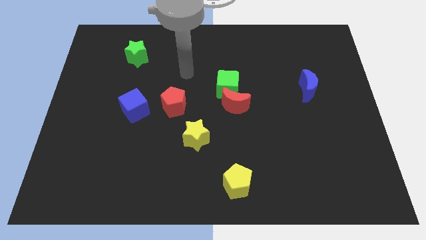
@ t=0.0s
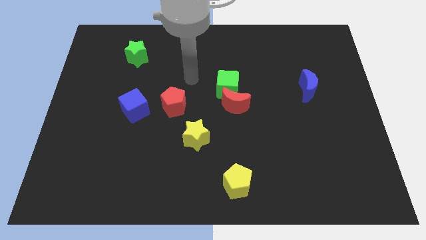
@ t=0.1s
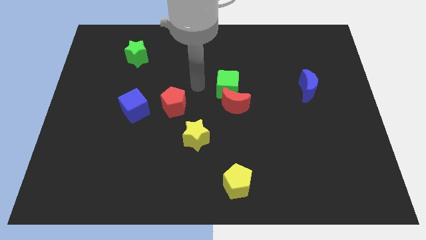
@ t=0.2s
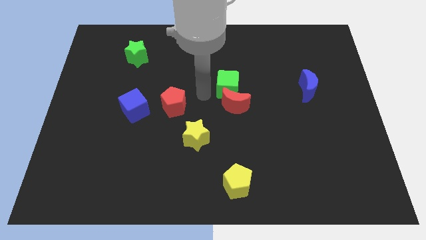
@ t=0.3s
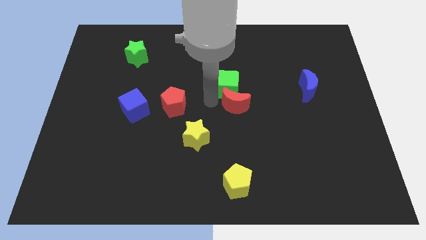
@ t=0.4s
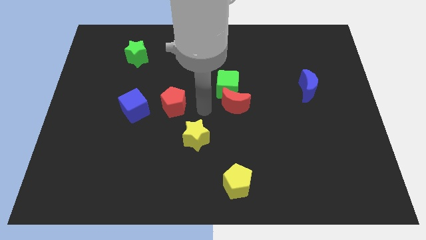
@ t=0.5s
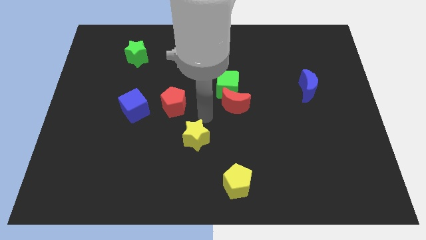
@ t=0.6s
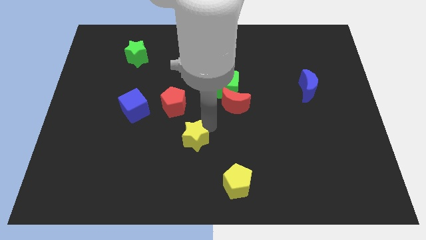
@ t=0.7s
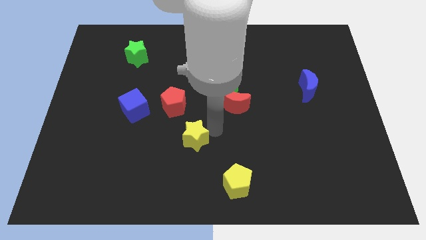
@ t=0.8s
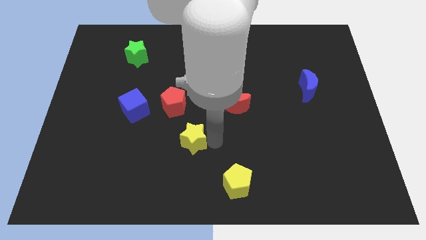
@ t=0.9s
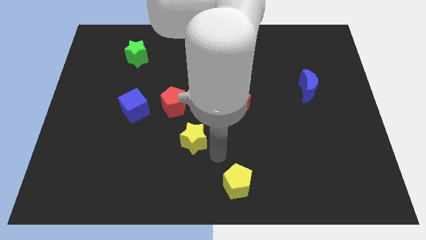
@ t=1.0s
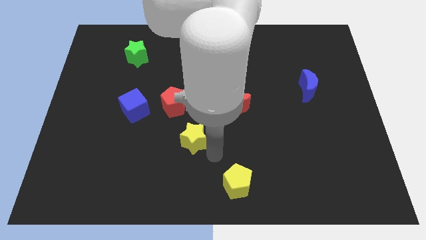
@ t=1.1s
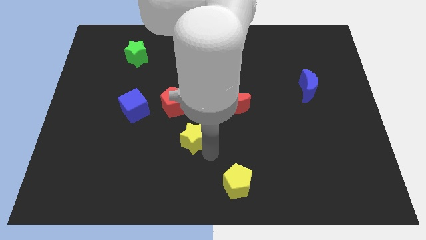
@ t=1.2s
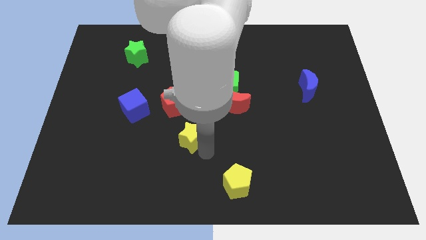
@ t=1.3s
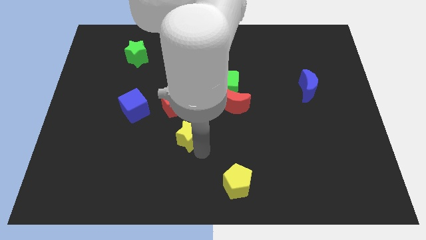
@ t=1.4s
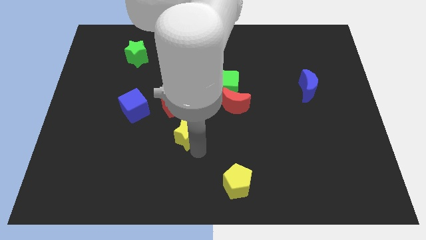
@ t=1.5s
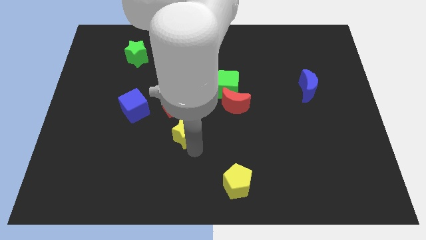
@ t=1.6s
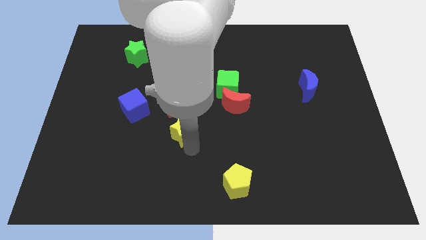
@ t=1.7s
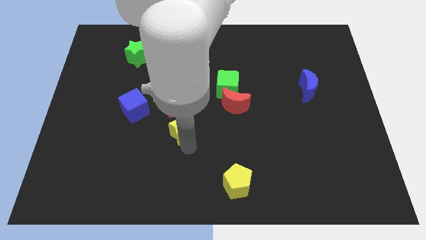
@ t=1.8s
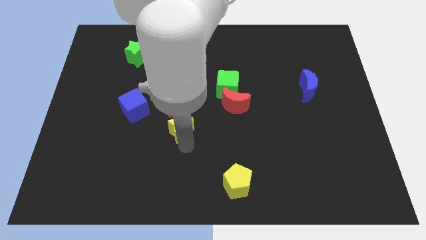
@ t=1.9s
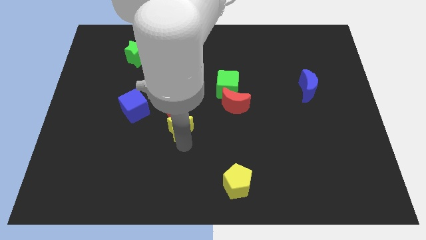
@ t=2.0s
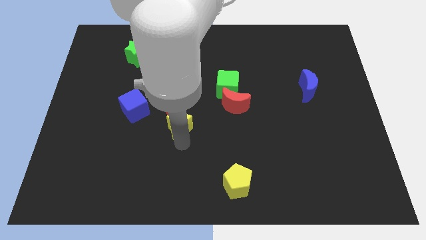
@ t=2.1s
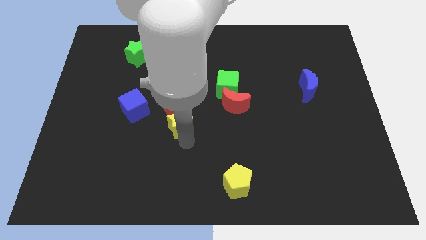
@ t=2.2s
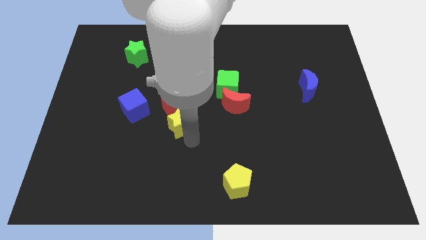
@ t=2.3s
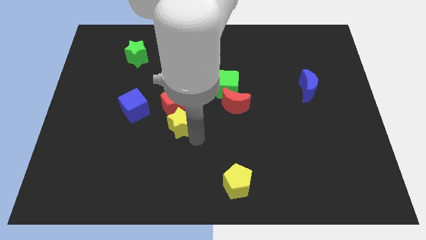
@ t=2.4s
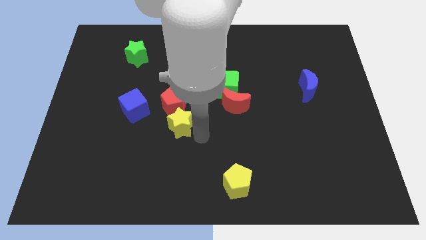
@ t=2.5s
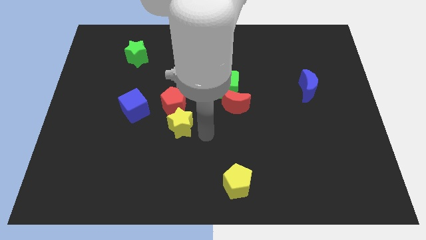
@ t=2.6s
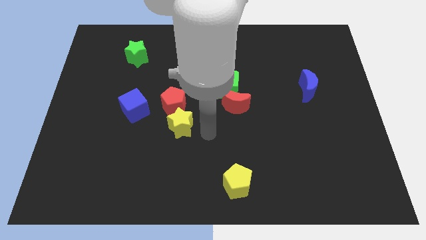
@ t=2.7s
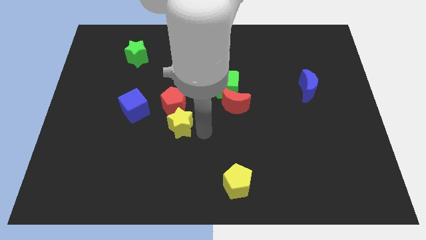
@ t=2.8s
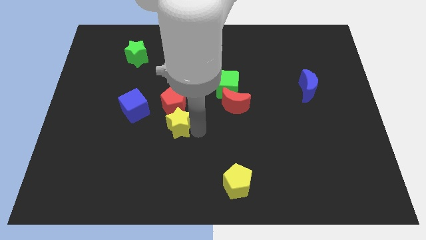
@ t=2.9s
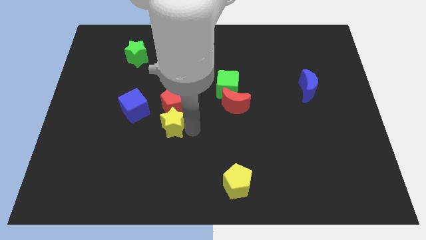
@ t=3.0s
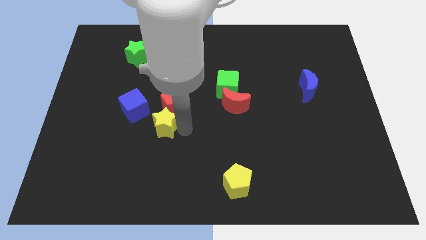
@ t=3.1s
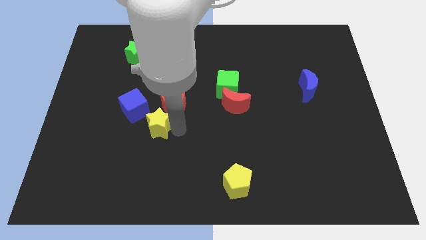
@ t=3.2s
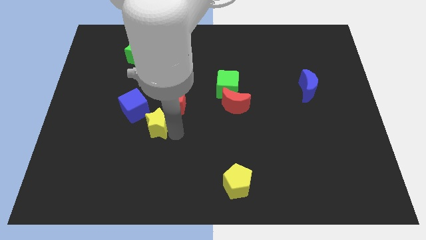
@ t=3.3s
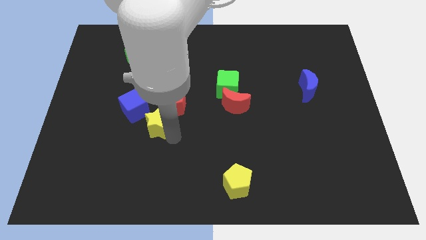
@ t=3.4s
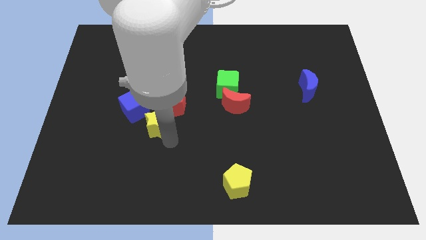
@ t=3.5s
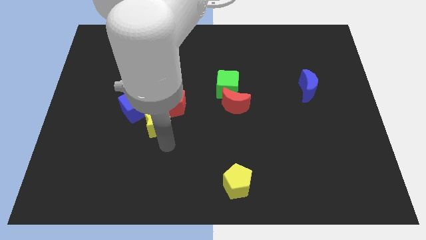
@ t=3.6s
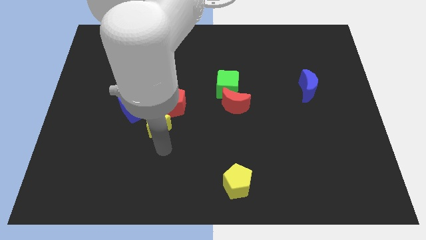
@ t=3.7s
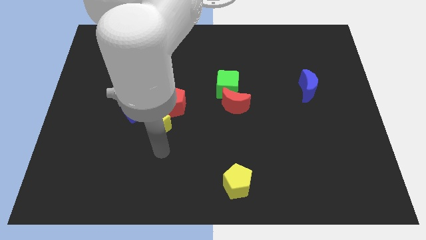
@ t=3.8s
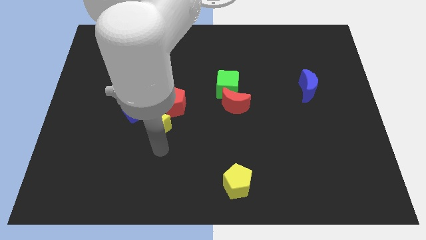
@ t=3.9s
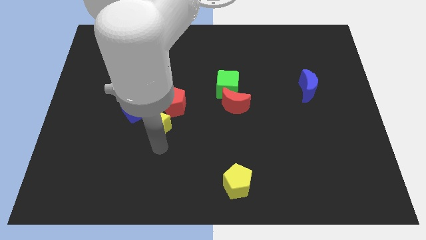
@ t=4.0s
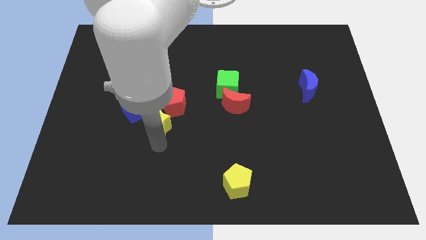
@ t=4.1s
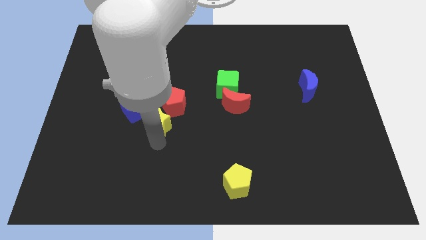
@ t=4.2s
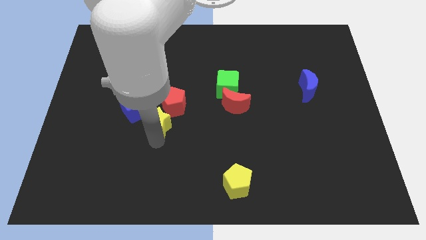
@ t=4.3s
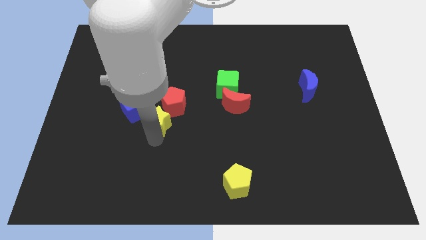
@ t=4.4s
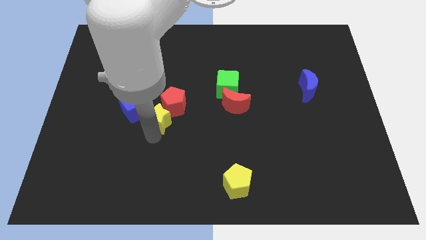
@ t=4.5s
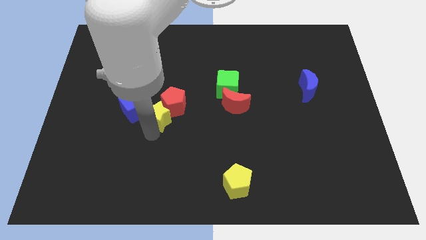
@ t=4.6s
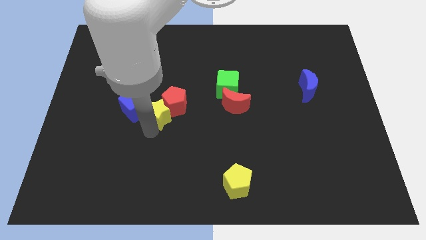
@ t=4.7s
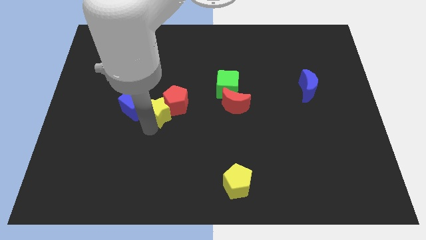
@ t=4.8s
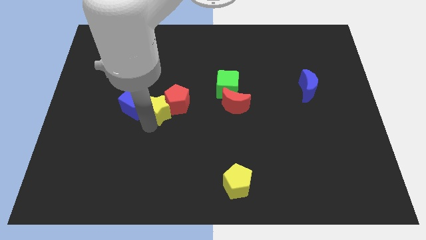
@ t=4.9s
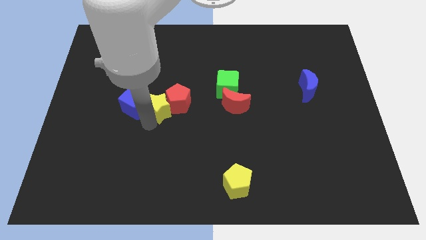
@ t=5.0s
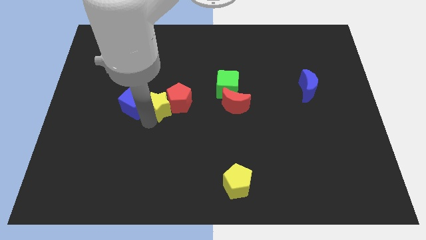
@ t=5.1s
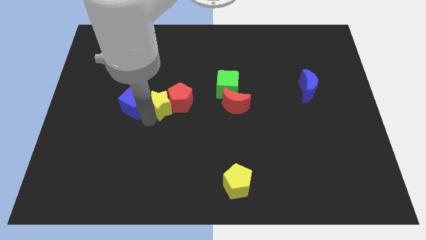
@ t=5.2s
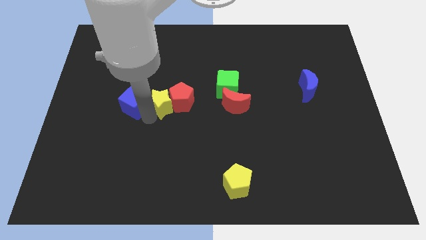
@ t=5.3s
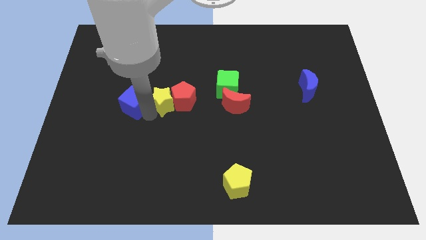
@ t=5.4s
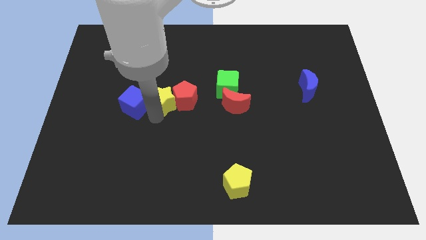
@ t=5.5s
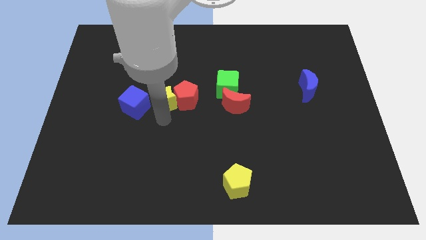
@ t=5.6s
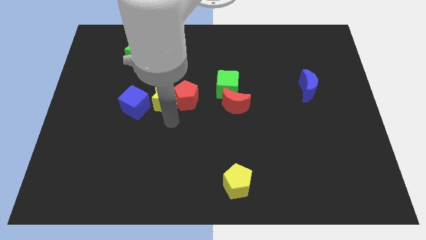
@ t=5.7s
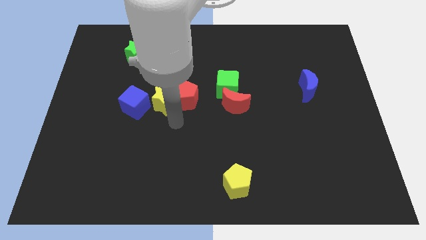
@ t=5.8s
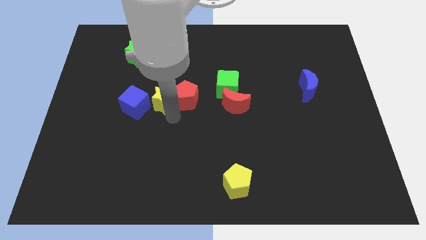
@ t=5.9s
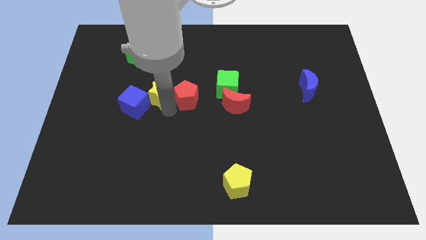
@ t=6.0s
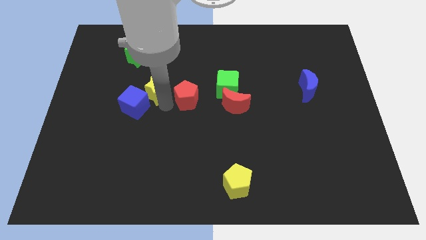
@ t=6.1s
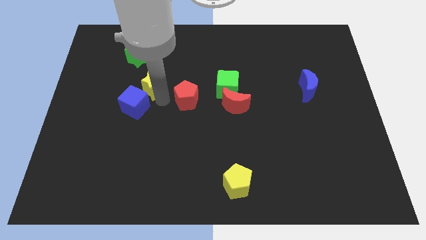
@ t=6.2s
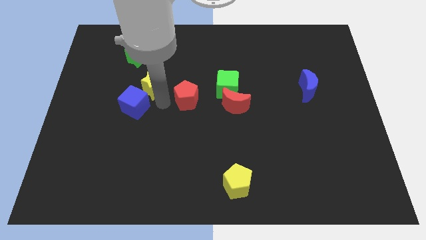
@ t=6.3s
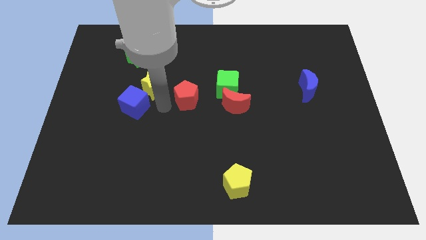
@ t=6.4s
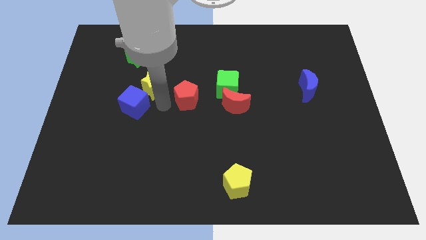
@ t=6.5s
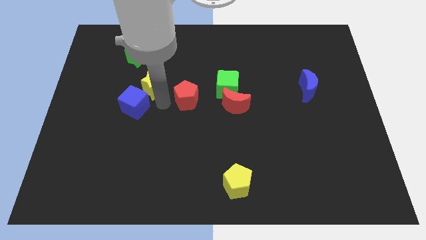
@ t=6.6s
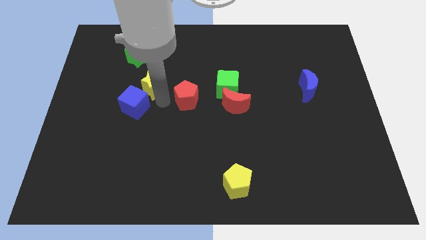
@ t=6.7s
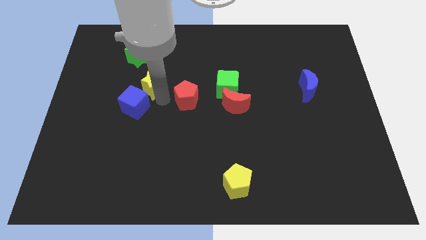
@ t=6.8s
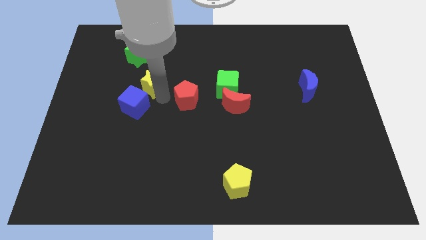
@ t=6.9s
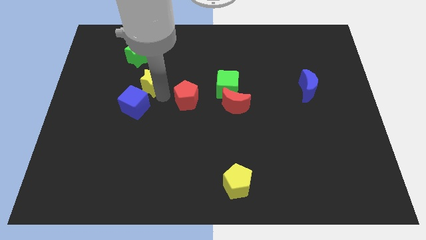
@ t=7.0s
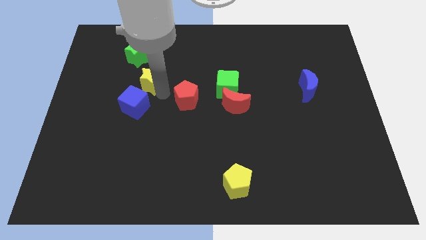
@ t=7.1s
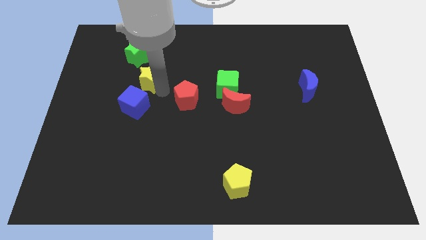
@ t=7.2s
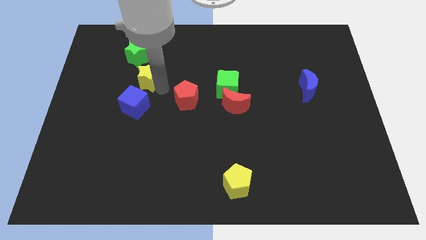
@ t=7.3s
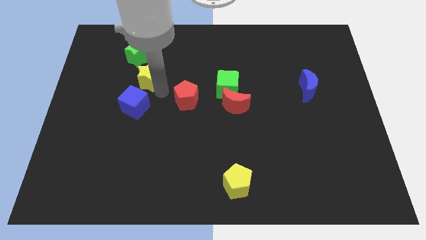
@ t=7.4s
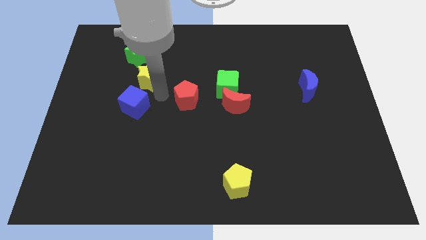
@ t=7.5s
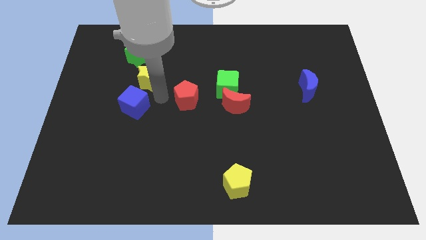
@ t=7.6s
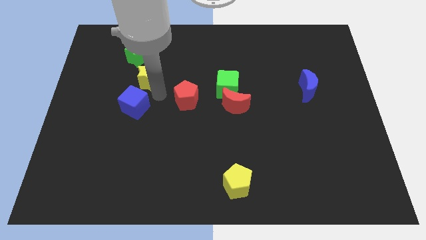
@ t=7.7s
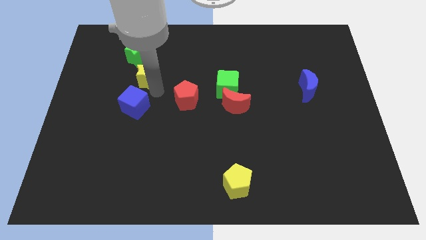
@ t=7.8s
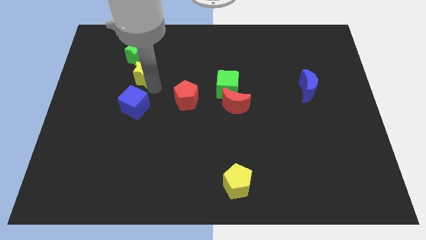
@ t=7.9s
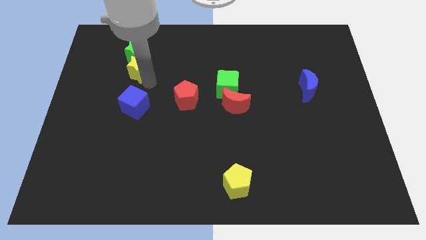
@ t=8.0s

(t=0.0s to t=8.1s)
slide the yellow star next to the green star

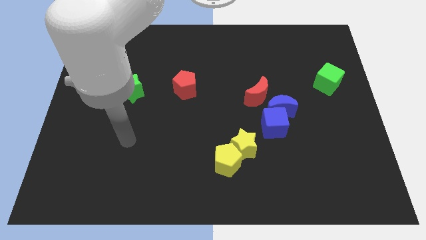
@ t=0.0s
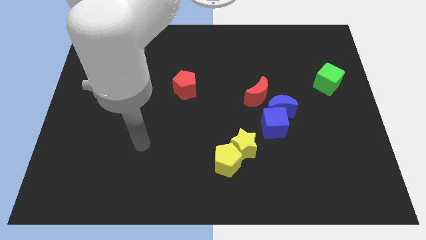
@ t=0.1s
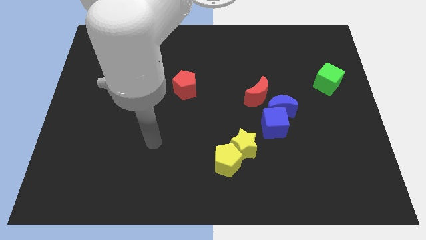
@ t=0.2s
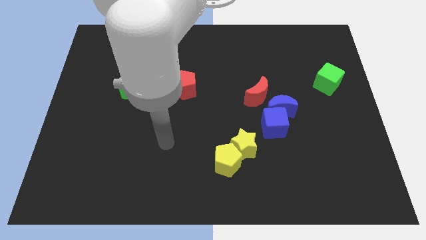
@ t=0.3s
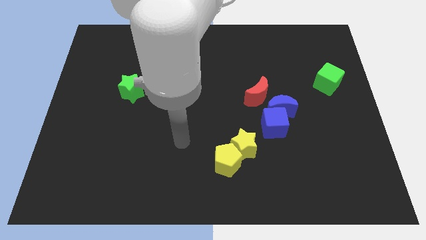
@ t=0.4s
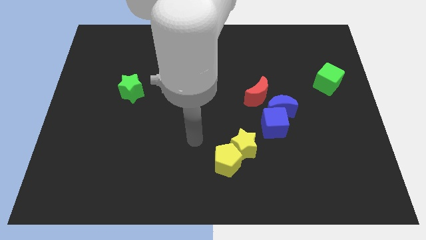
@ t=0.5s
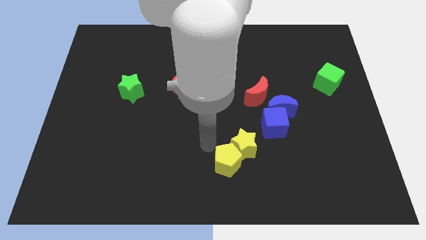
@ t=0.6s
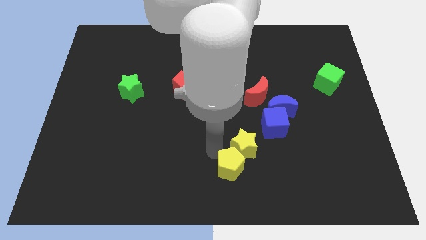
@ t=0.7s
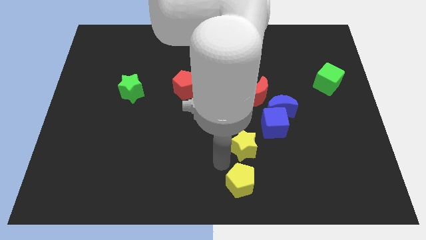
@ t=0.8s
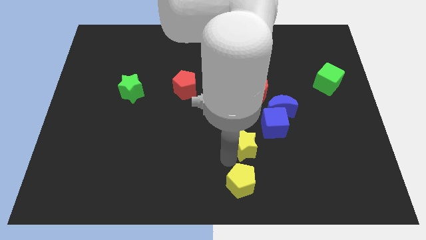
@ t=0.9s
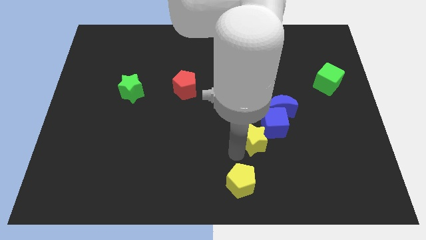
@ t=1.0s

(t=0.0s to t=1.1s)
move the yellow star towards the blue cube
